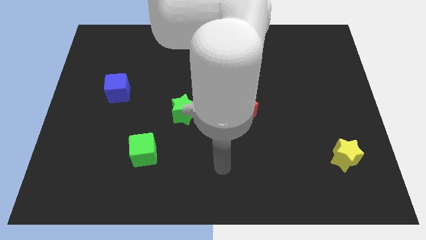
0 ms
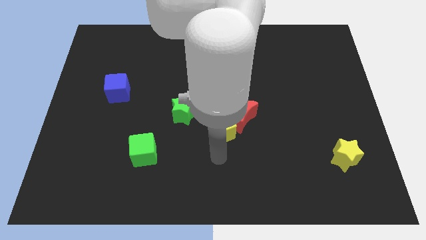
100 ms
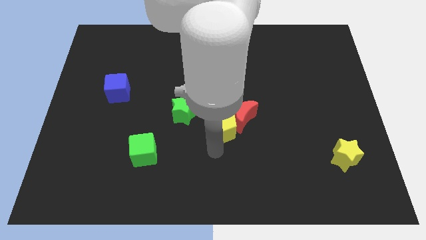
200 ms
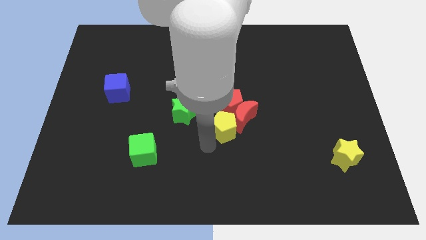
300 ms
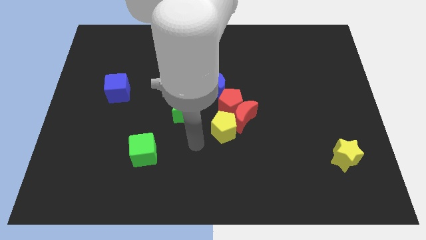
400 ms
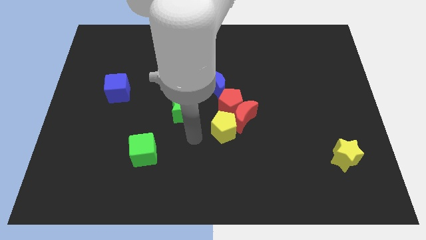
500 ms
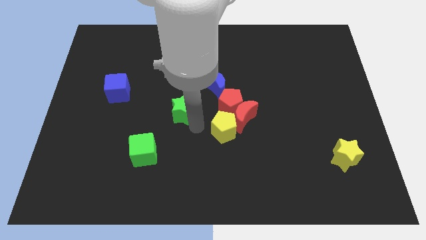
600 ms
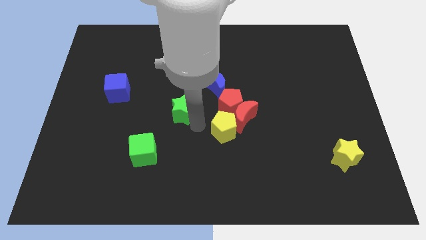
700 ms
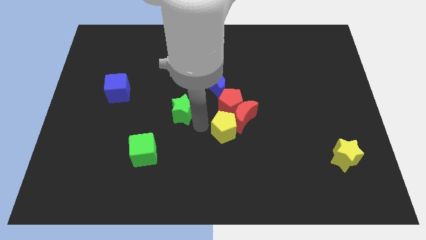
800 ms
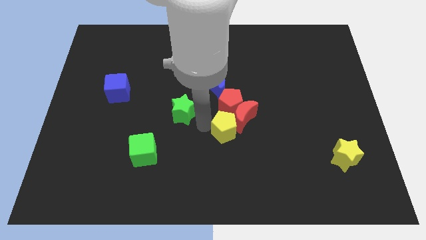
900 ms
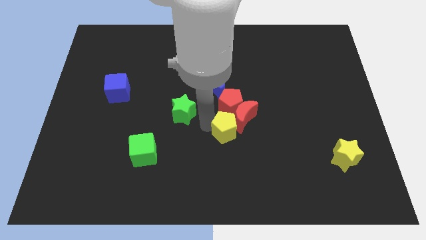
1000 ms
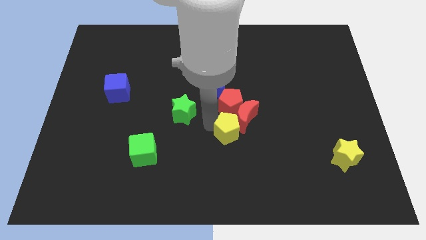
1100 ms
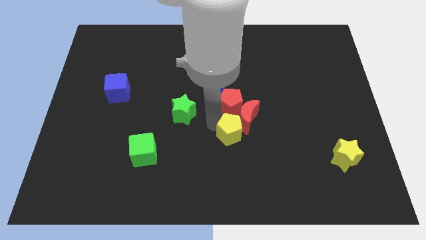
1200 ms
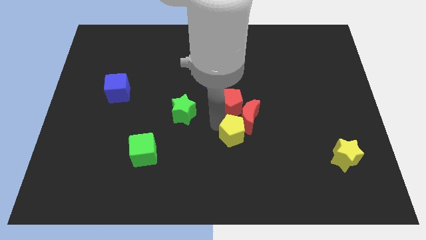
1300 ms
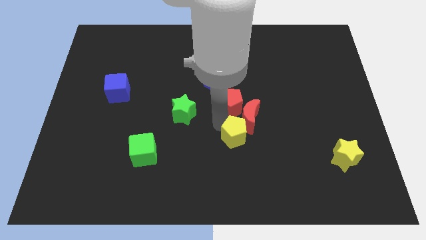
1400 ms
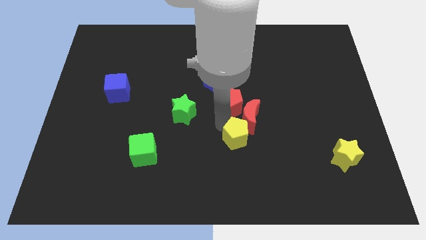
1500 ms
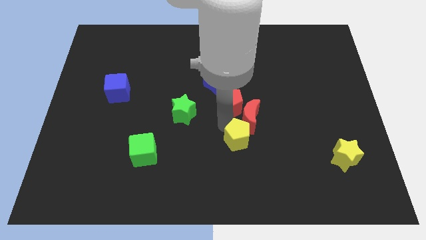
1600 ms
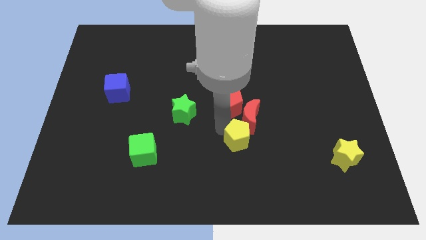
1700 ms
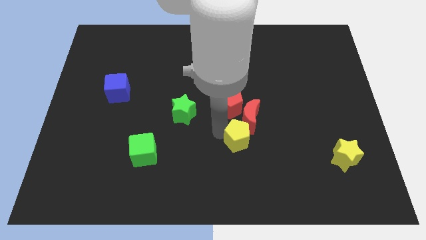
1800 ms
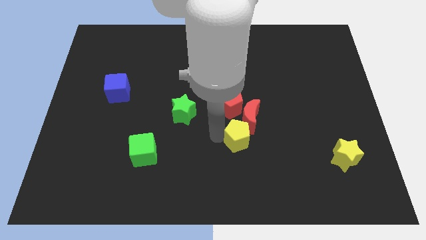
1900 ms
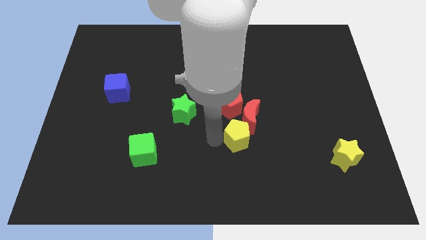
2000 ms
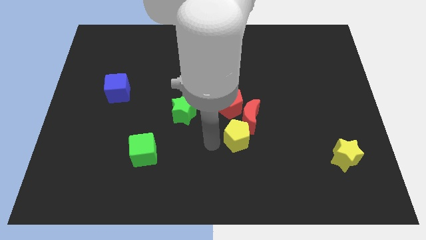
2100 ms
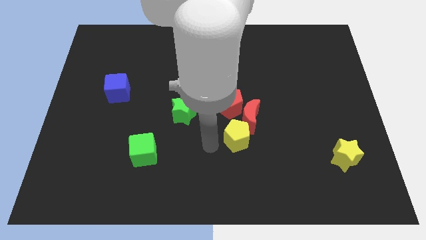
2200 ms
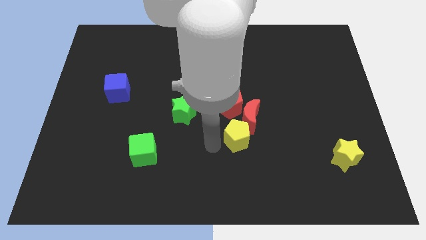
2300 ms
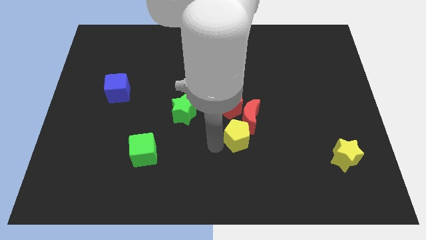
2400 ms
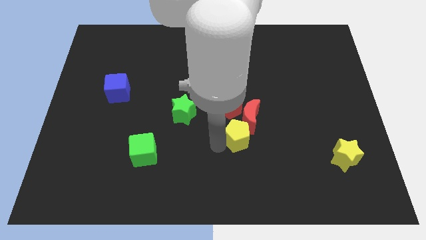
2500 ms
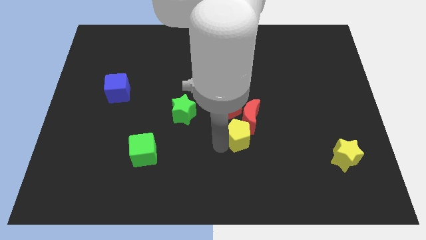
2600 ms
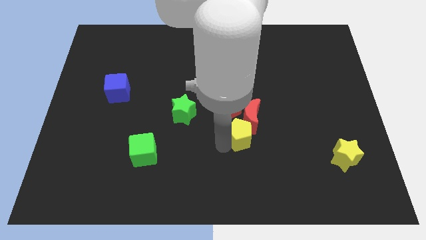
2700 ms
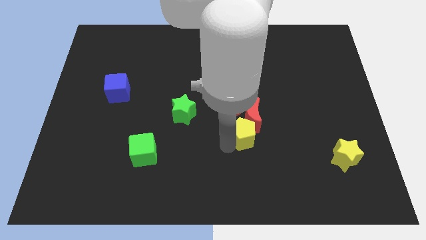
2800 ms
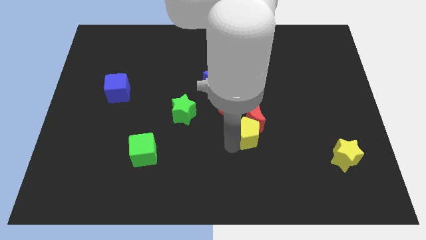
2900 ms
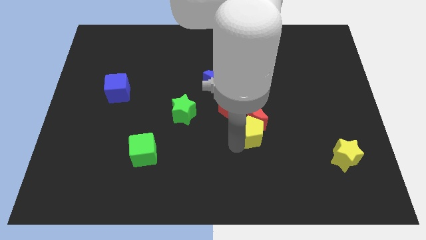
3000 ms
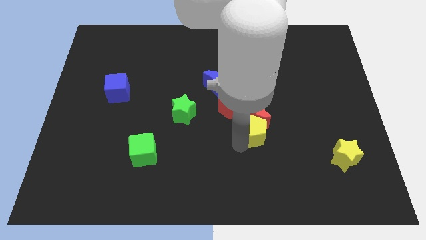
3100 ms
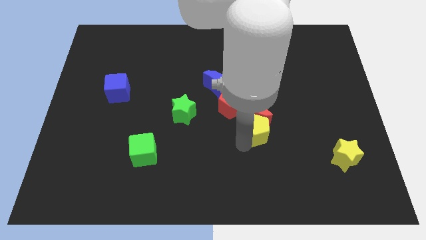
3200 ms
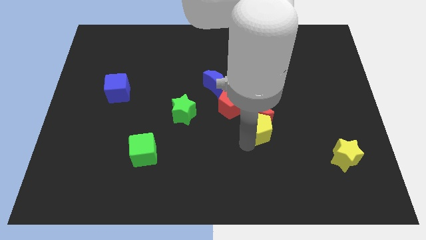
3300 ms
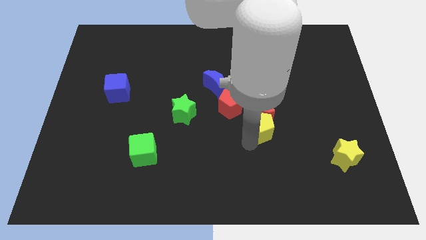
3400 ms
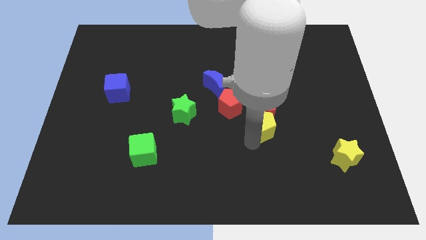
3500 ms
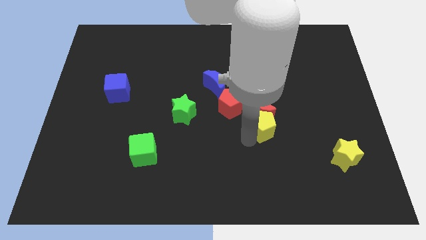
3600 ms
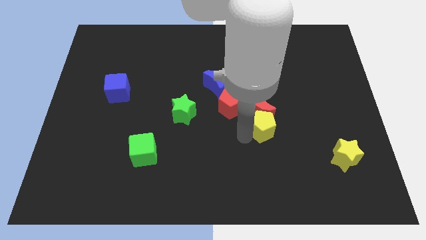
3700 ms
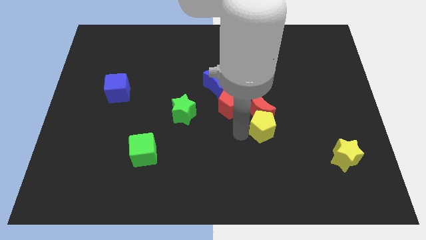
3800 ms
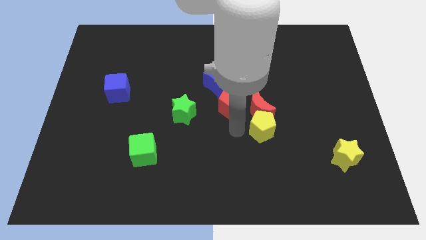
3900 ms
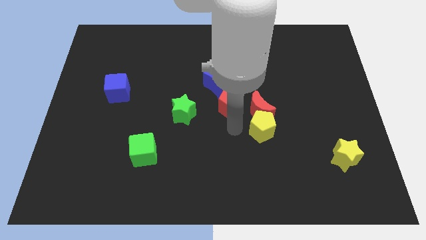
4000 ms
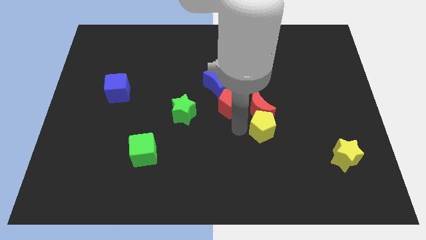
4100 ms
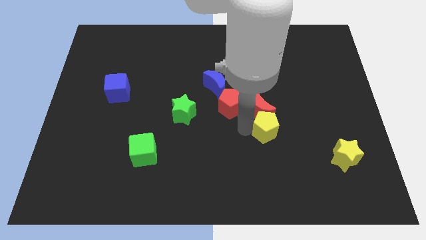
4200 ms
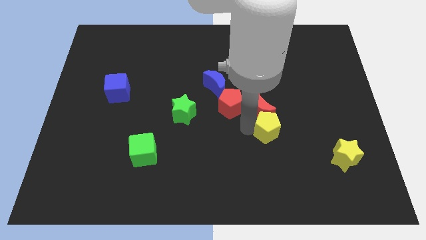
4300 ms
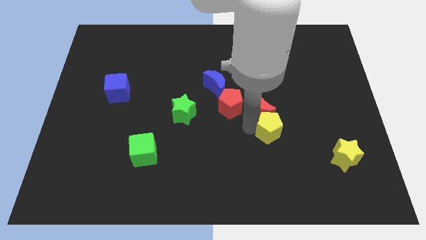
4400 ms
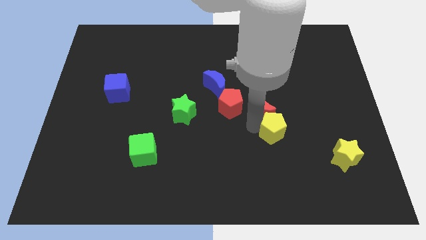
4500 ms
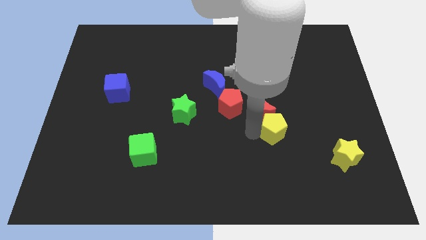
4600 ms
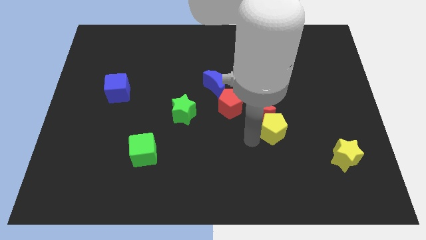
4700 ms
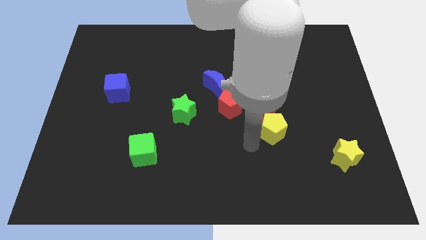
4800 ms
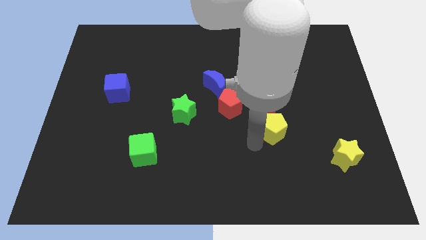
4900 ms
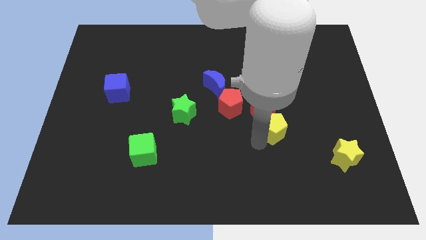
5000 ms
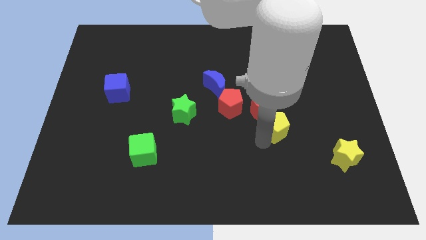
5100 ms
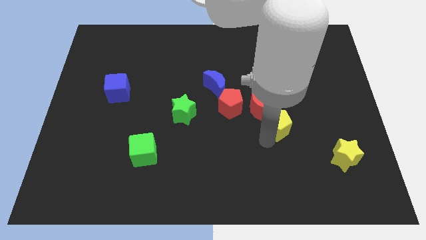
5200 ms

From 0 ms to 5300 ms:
push the yellow pentagon right of the red moon

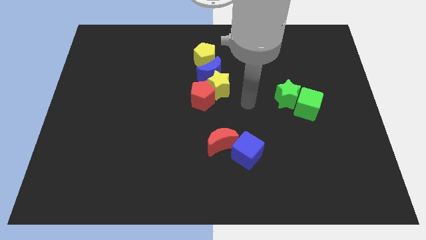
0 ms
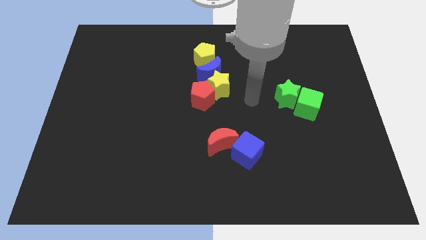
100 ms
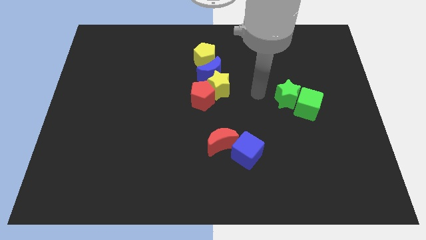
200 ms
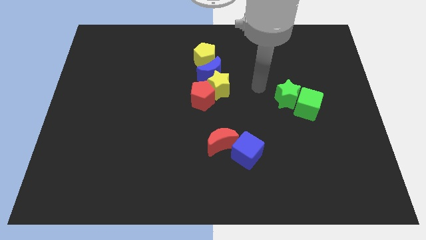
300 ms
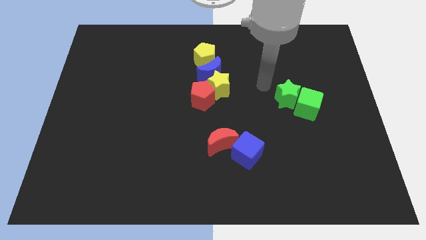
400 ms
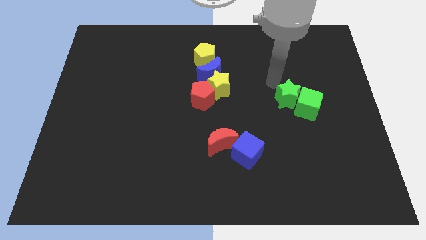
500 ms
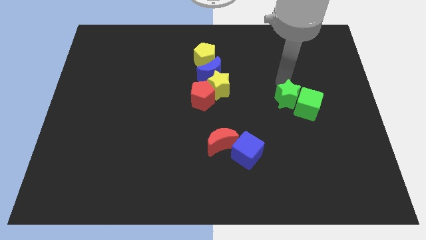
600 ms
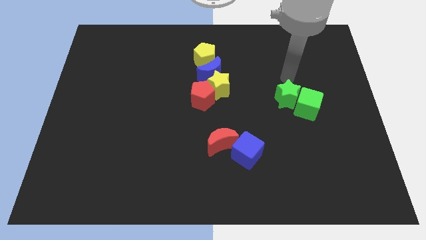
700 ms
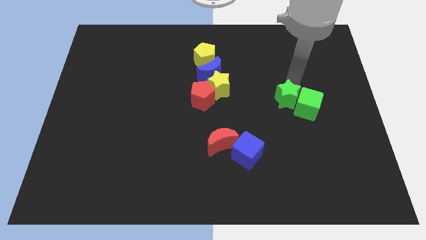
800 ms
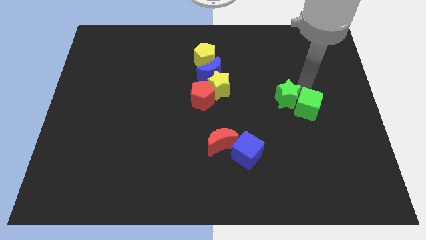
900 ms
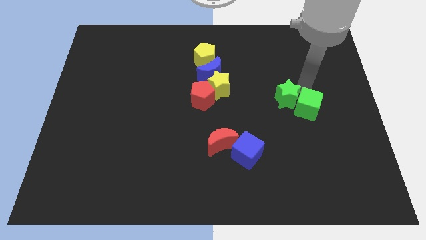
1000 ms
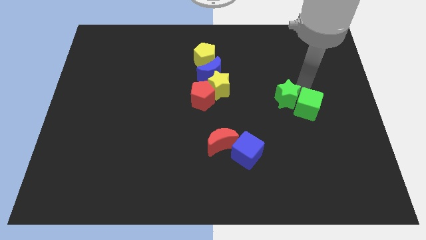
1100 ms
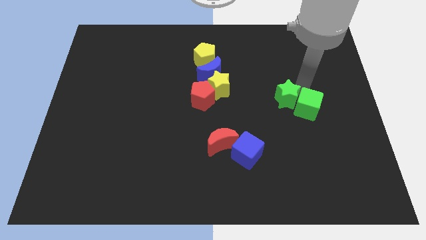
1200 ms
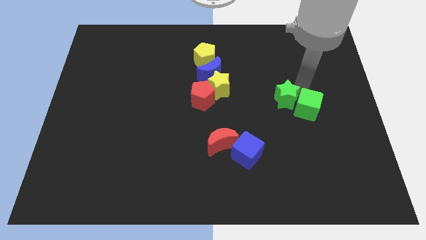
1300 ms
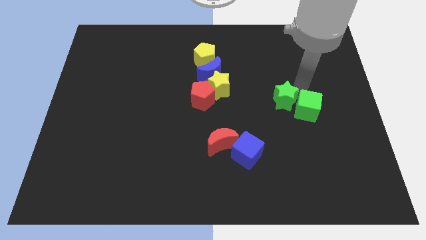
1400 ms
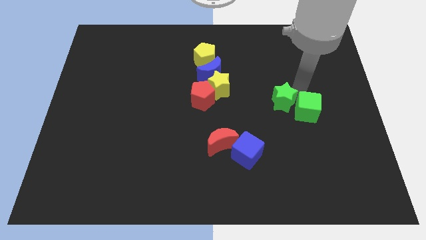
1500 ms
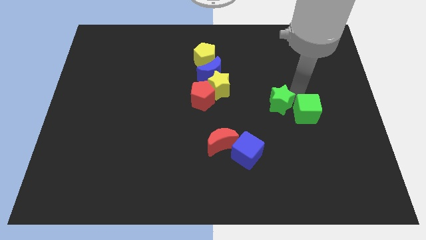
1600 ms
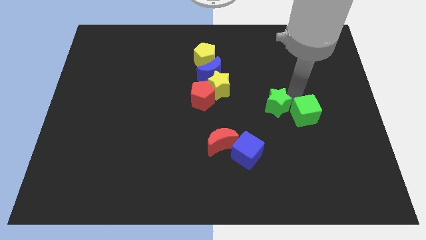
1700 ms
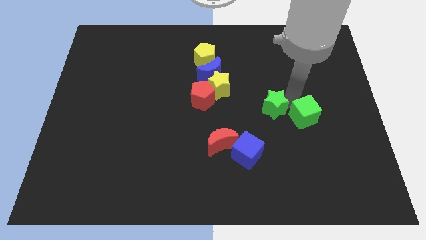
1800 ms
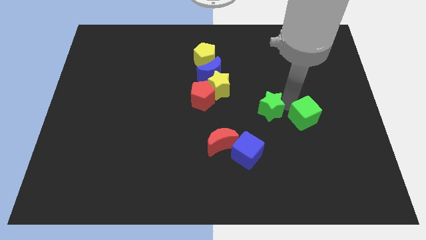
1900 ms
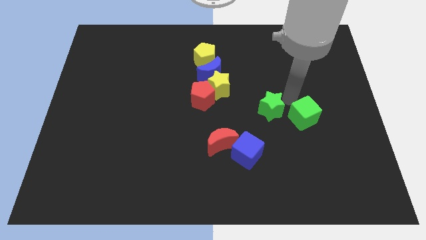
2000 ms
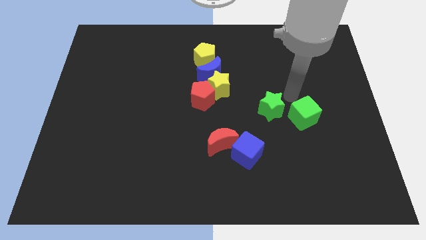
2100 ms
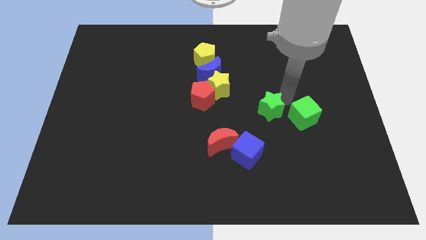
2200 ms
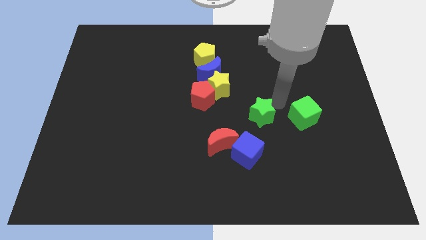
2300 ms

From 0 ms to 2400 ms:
move the green star diagonally up and to the right of the red moon
